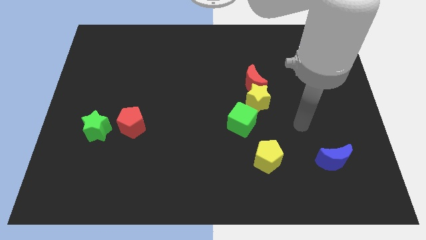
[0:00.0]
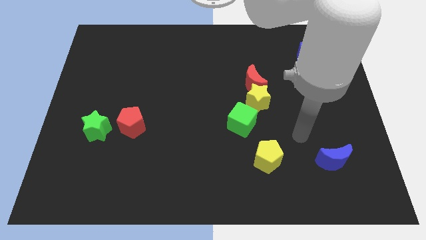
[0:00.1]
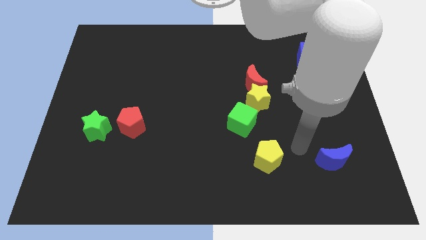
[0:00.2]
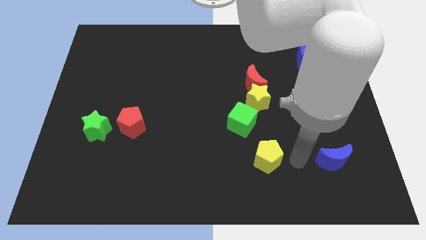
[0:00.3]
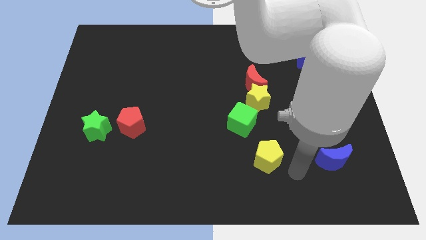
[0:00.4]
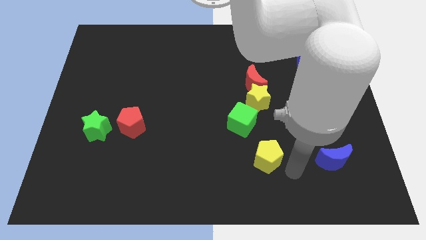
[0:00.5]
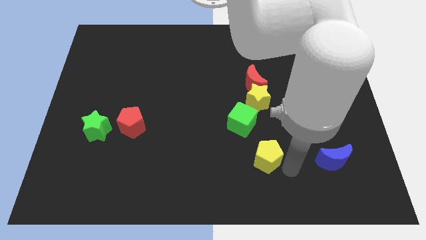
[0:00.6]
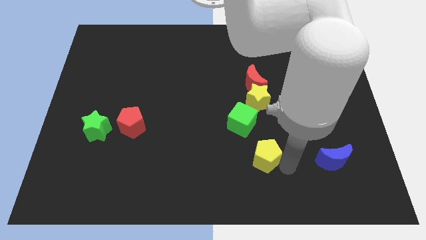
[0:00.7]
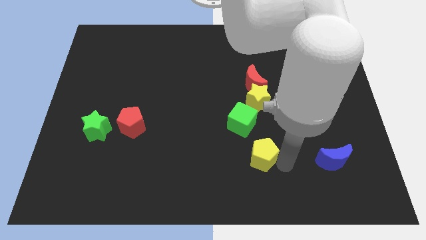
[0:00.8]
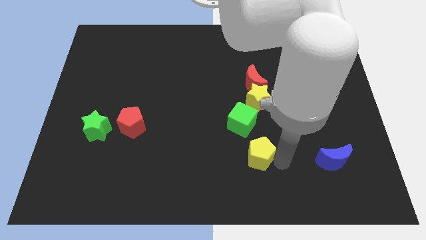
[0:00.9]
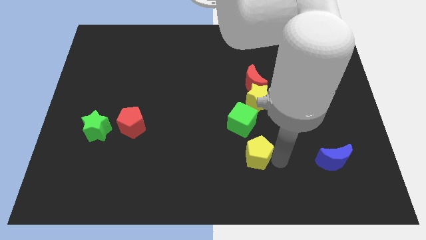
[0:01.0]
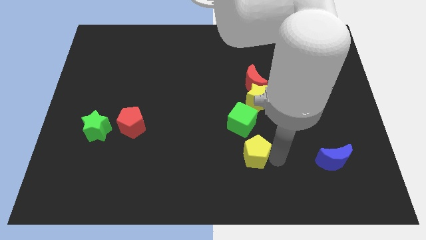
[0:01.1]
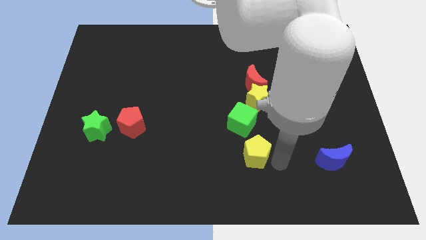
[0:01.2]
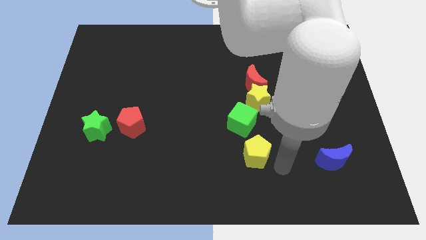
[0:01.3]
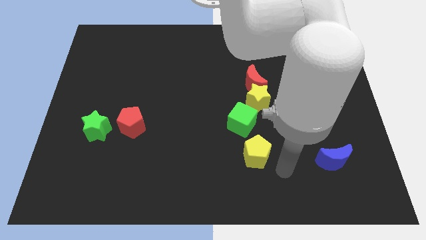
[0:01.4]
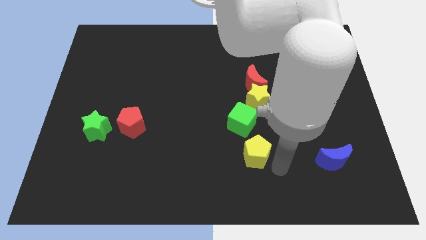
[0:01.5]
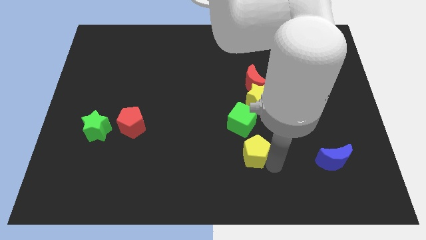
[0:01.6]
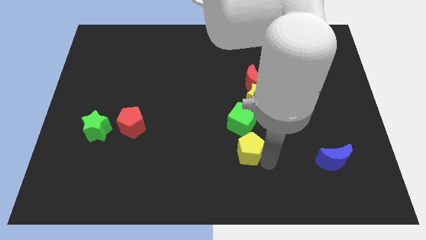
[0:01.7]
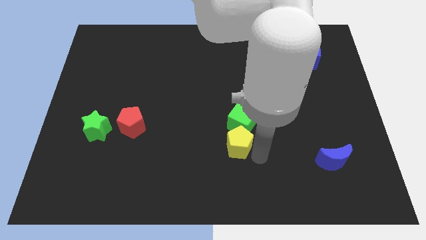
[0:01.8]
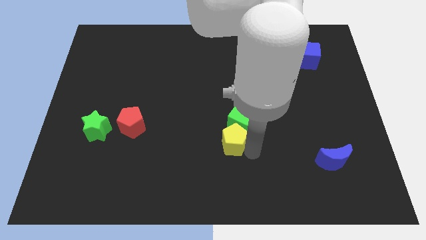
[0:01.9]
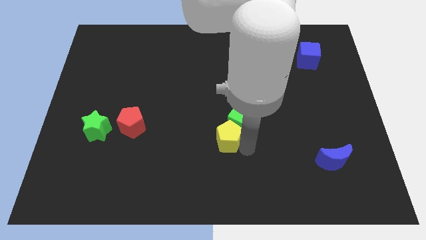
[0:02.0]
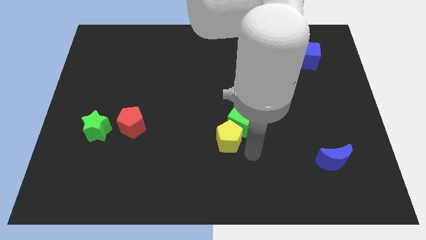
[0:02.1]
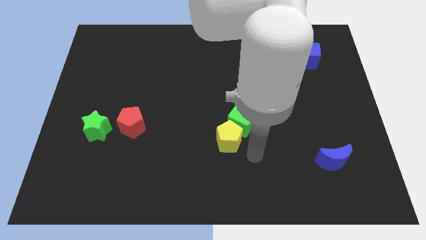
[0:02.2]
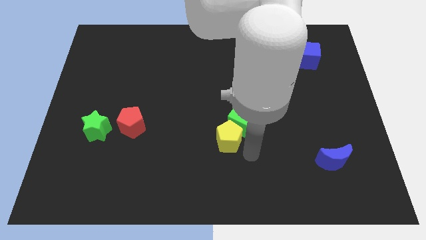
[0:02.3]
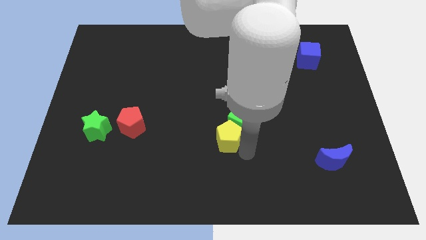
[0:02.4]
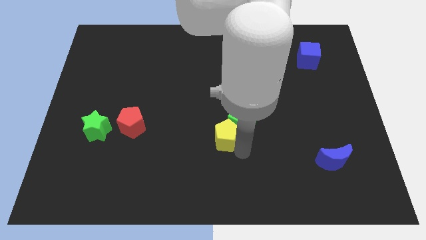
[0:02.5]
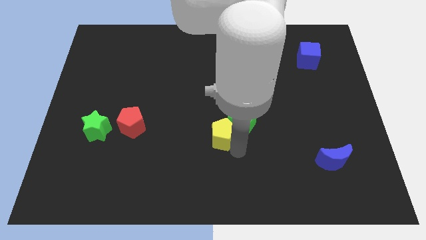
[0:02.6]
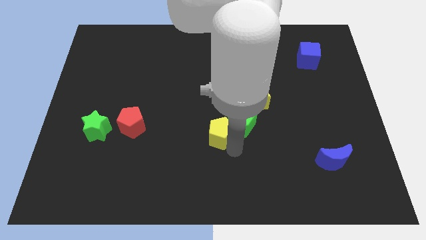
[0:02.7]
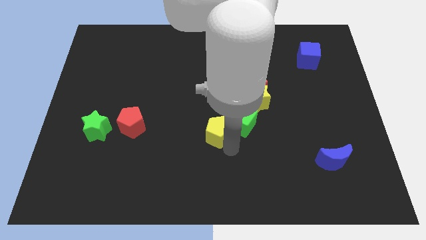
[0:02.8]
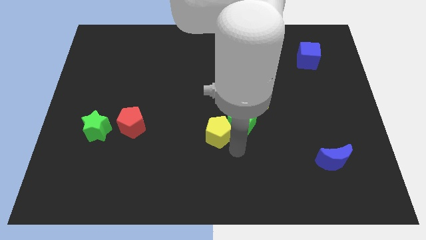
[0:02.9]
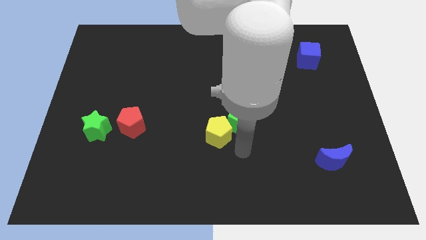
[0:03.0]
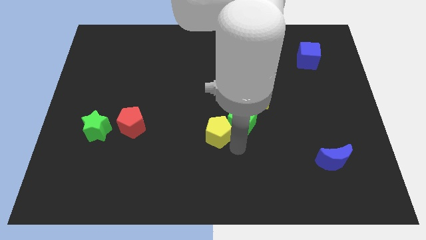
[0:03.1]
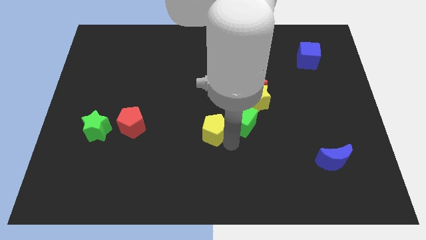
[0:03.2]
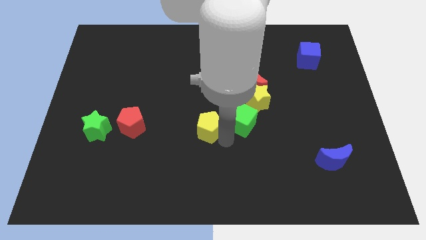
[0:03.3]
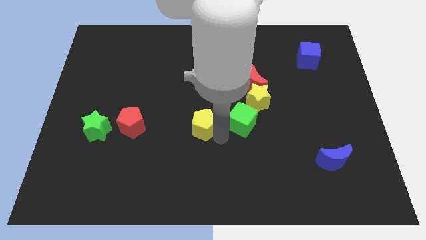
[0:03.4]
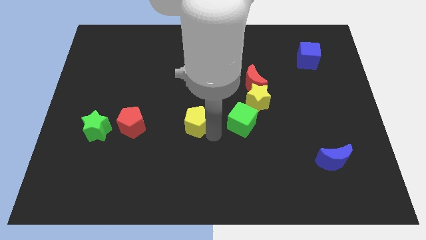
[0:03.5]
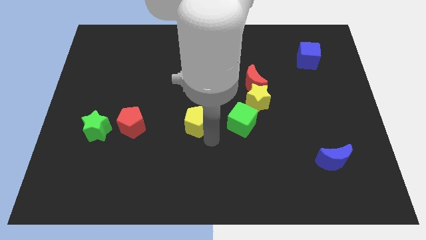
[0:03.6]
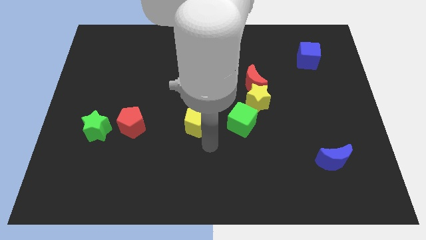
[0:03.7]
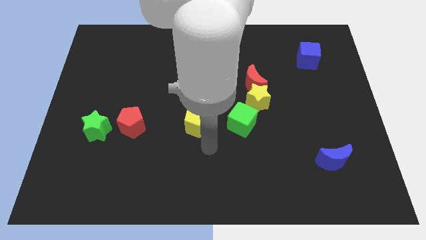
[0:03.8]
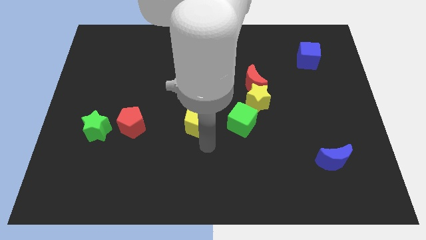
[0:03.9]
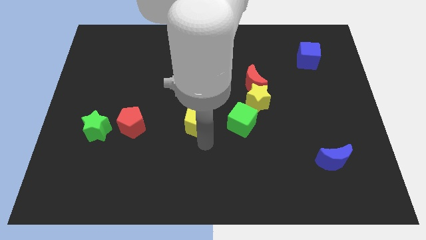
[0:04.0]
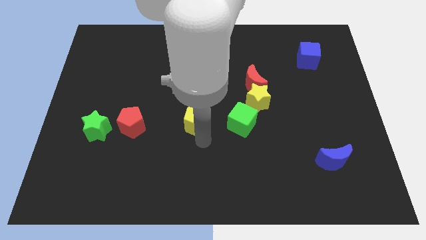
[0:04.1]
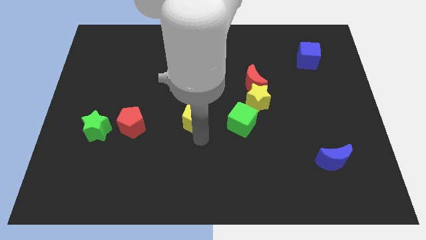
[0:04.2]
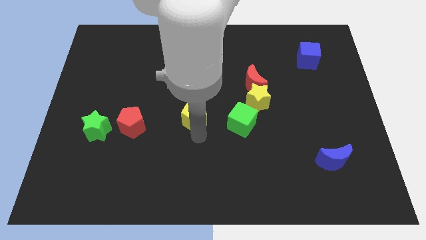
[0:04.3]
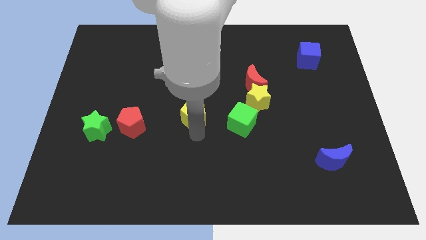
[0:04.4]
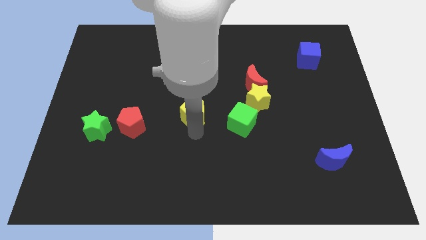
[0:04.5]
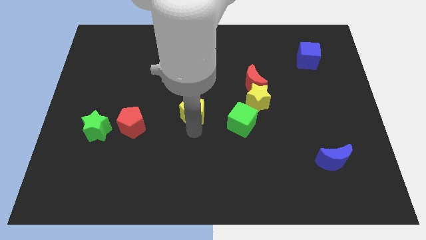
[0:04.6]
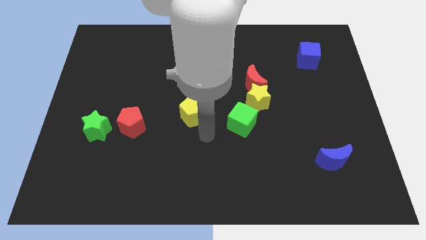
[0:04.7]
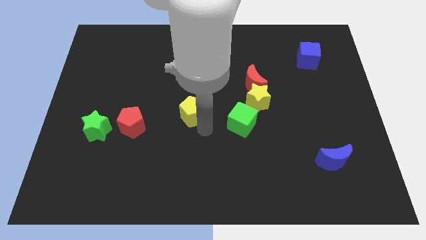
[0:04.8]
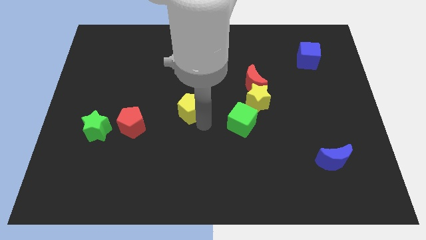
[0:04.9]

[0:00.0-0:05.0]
move the yellow pentagon upwards and left diagonally

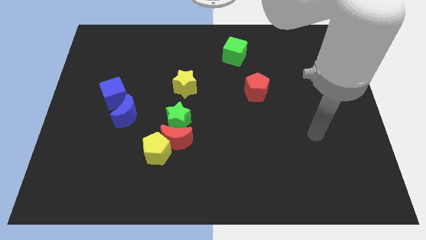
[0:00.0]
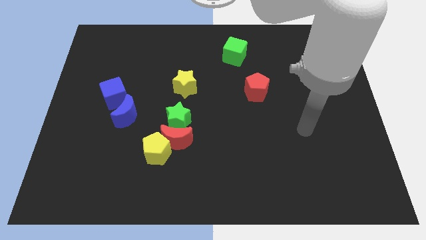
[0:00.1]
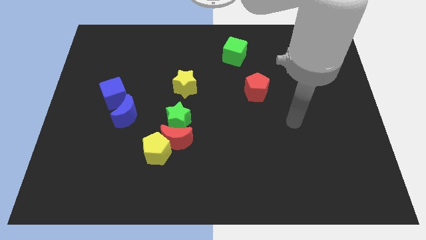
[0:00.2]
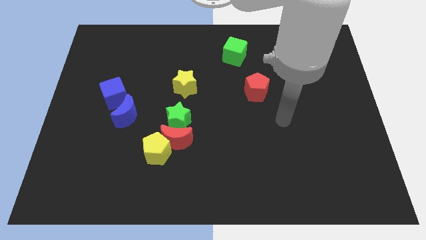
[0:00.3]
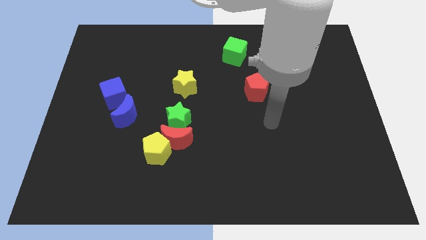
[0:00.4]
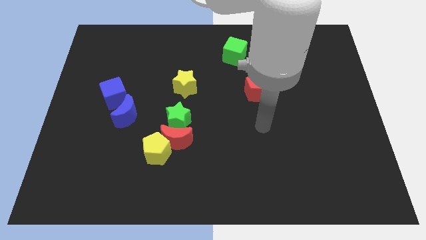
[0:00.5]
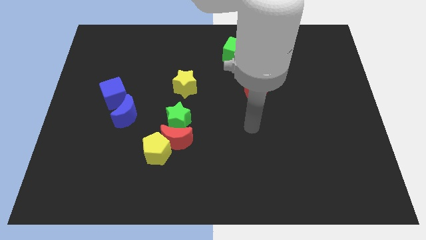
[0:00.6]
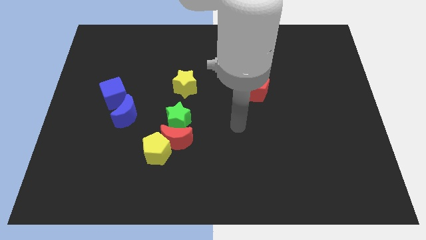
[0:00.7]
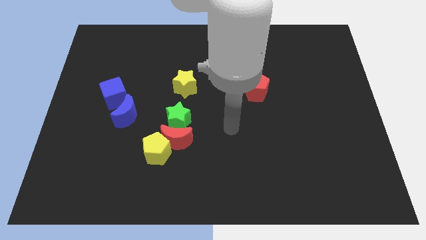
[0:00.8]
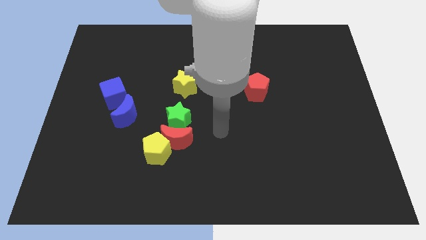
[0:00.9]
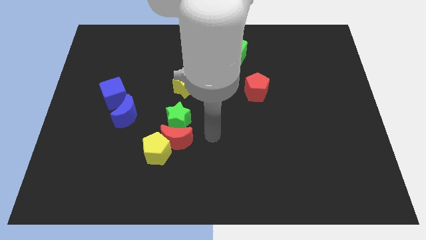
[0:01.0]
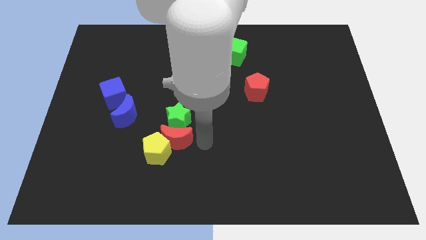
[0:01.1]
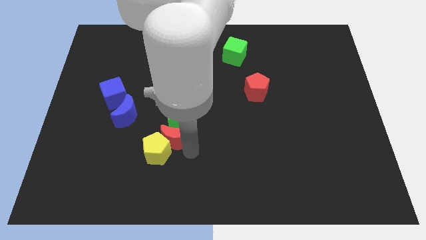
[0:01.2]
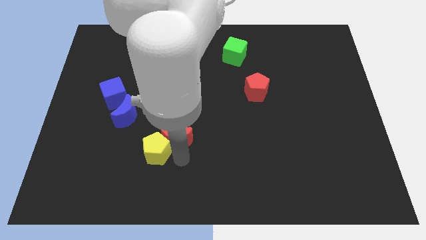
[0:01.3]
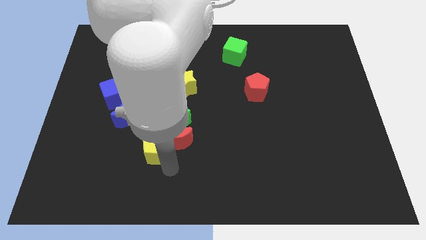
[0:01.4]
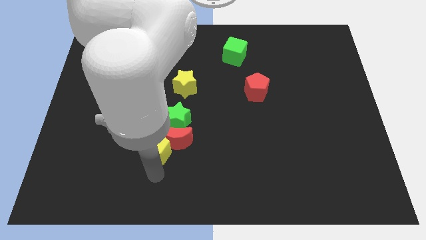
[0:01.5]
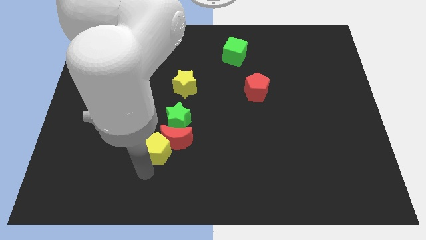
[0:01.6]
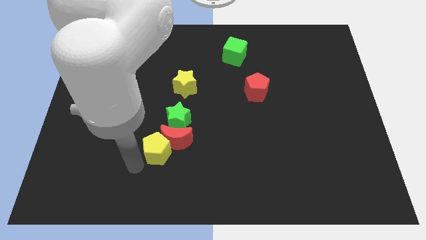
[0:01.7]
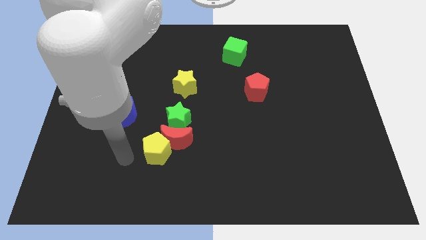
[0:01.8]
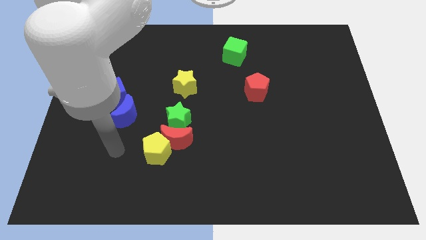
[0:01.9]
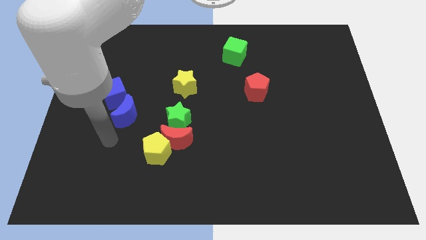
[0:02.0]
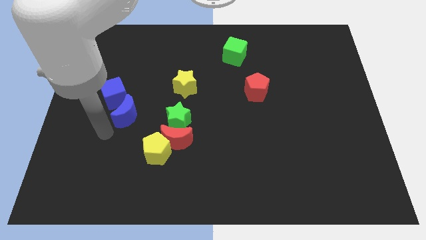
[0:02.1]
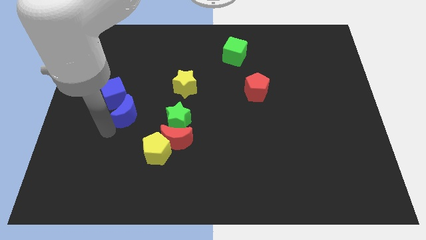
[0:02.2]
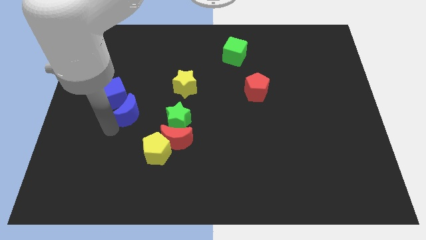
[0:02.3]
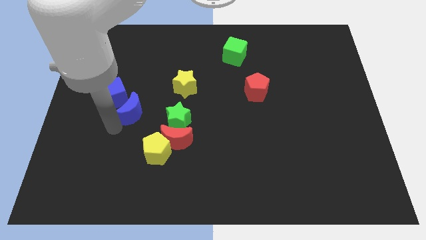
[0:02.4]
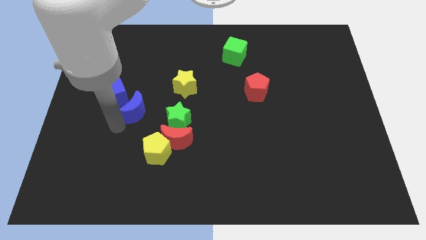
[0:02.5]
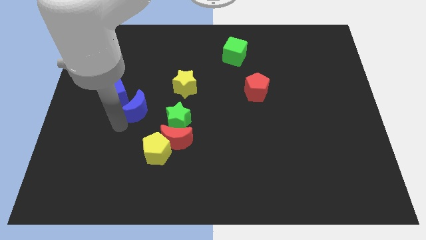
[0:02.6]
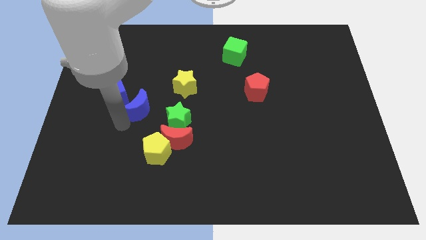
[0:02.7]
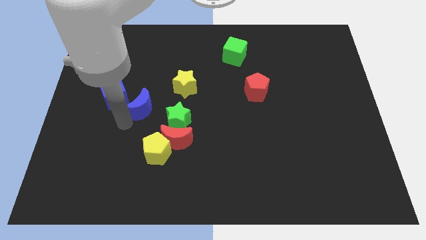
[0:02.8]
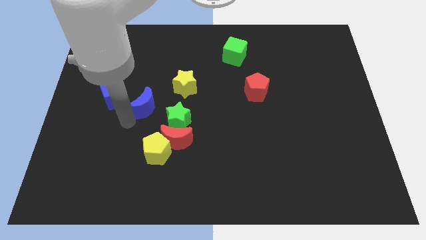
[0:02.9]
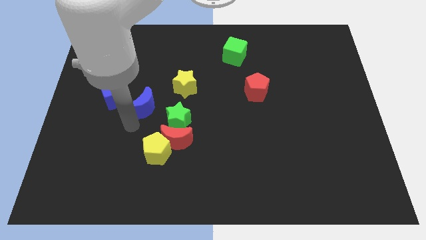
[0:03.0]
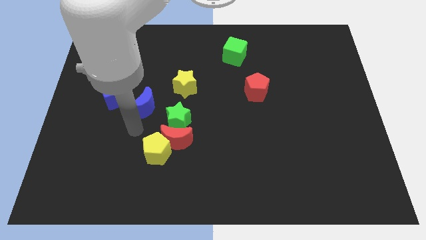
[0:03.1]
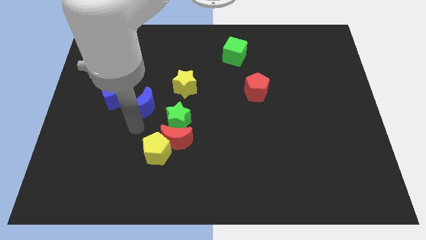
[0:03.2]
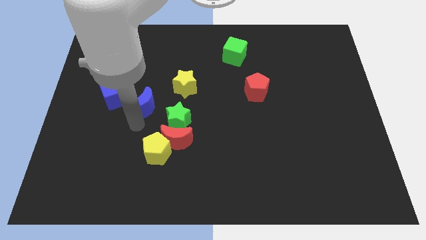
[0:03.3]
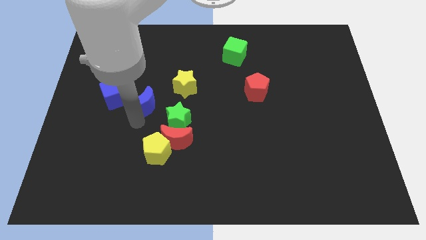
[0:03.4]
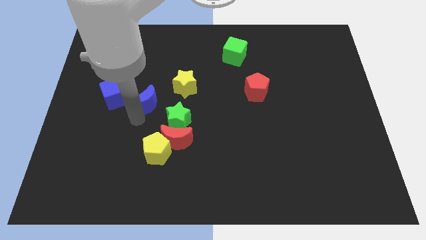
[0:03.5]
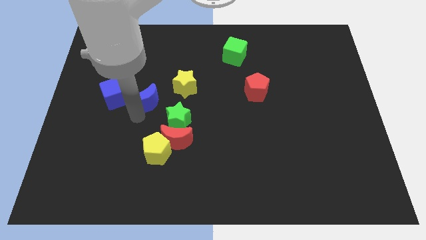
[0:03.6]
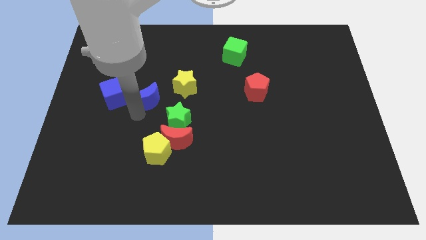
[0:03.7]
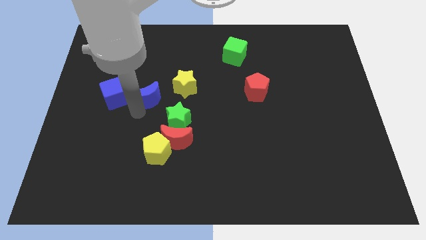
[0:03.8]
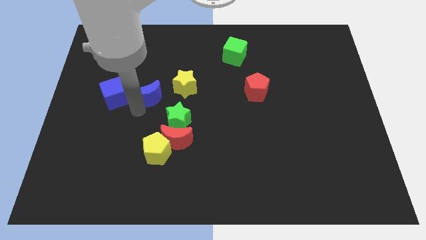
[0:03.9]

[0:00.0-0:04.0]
slide the blue moon diagonally upwards and right slightly
